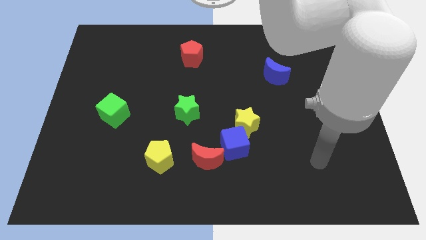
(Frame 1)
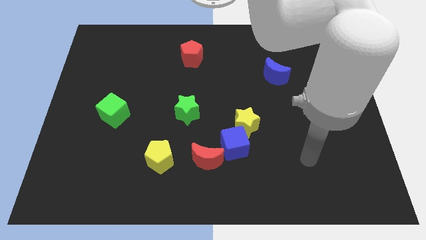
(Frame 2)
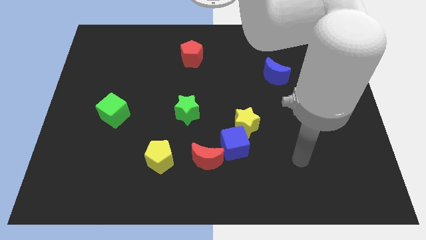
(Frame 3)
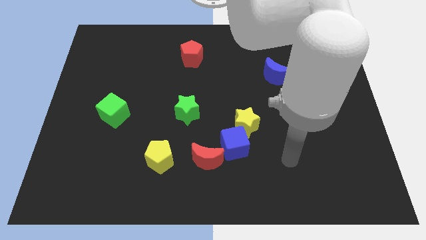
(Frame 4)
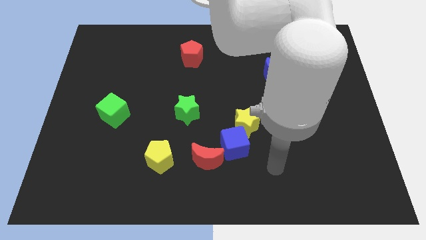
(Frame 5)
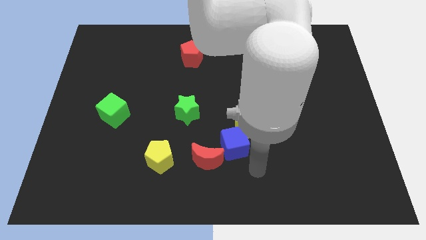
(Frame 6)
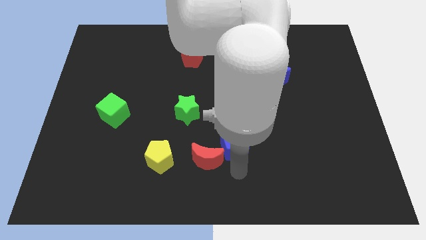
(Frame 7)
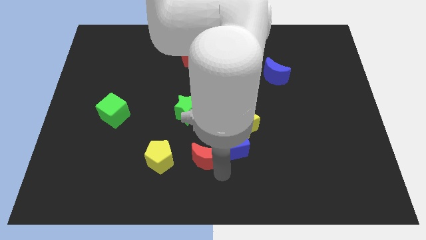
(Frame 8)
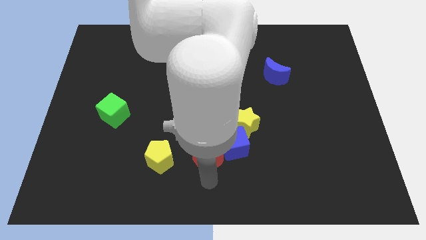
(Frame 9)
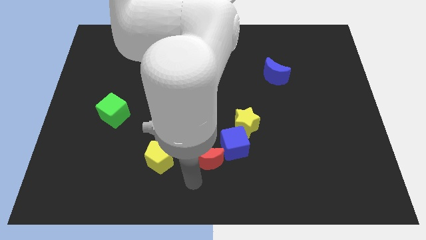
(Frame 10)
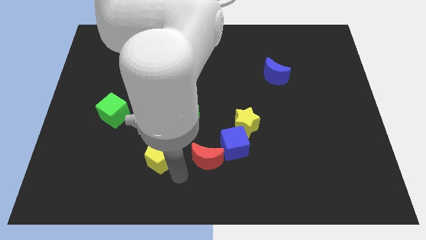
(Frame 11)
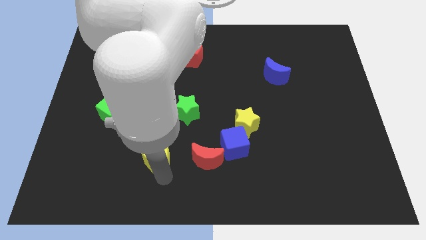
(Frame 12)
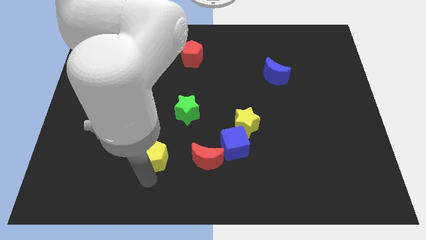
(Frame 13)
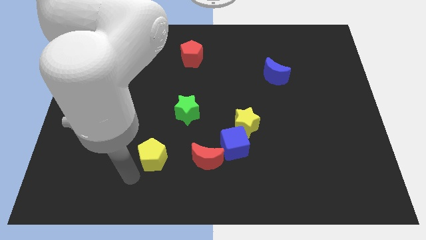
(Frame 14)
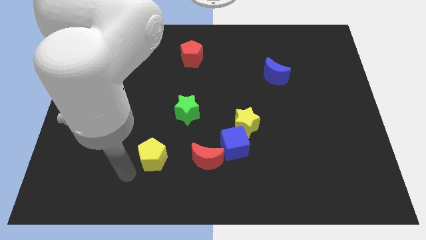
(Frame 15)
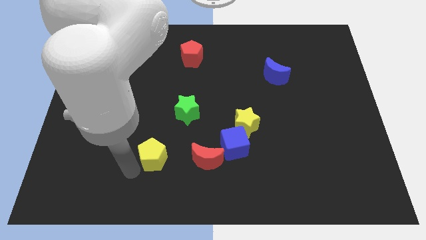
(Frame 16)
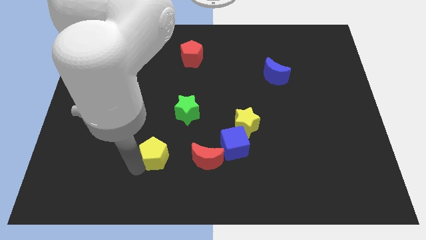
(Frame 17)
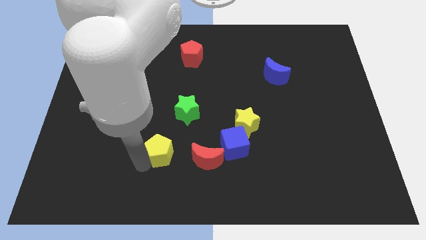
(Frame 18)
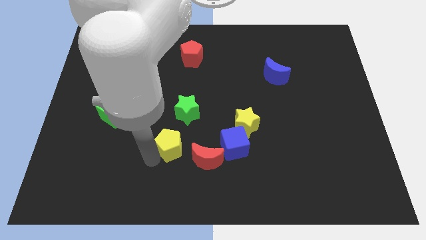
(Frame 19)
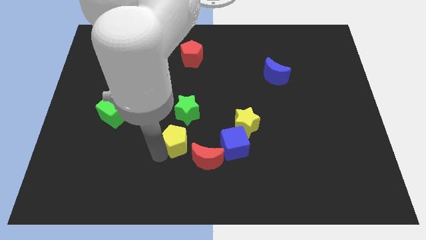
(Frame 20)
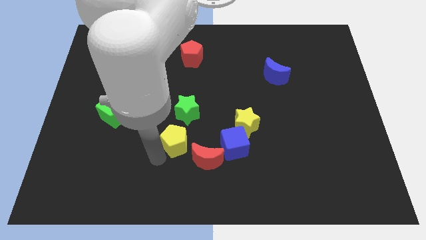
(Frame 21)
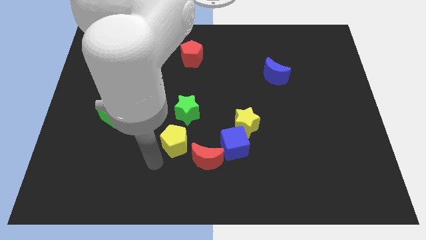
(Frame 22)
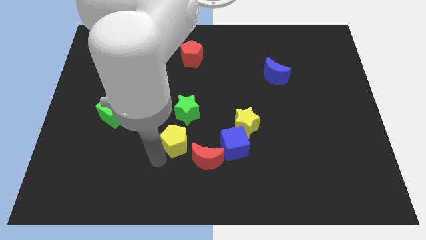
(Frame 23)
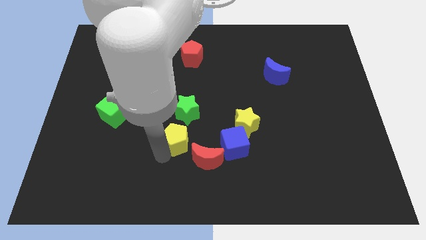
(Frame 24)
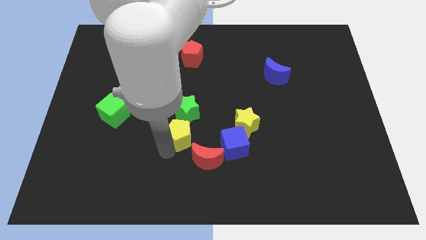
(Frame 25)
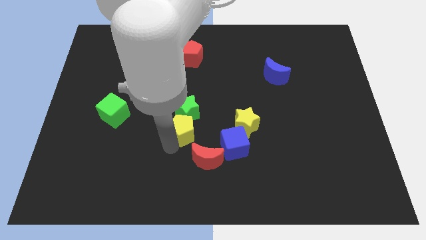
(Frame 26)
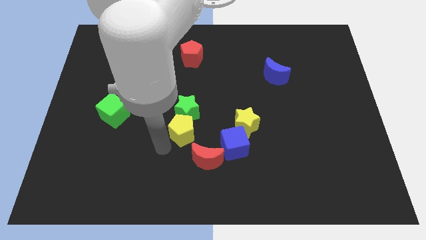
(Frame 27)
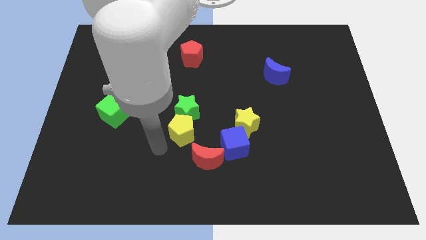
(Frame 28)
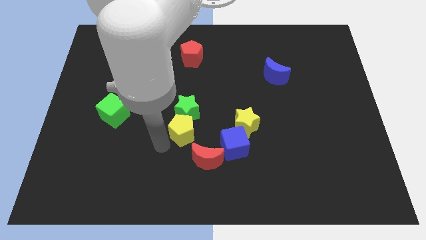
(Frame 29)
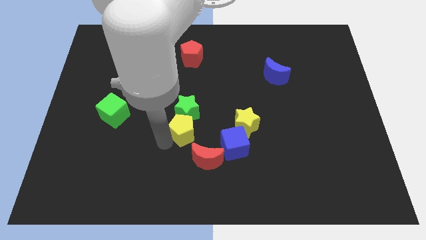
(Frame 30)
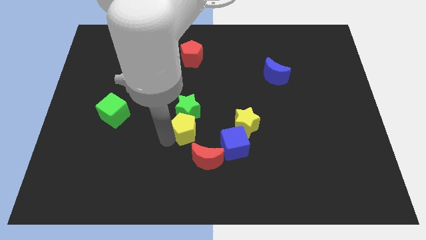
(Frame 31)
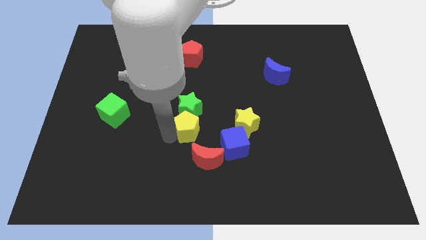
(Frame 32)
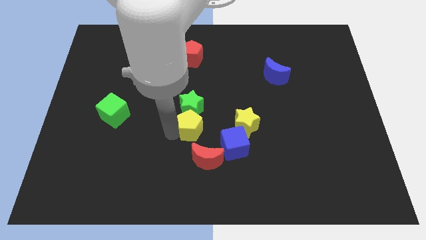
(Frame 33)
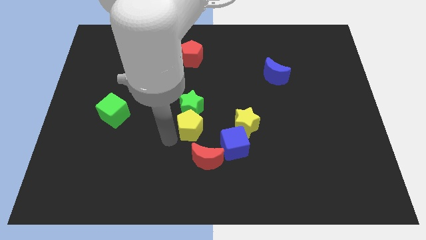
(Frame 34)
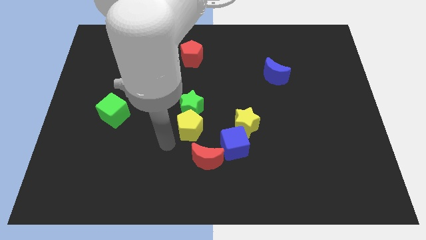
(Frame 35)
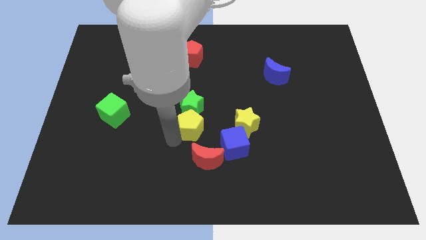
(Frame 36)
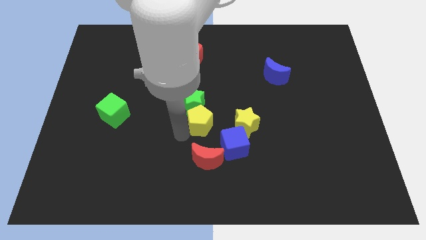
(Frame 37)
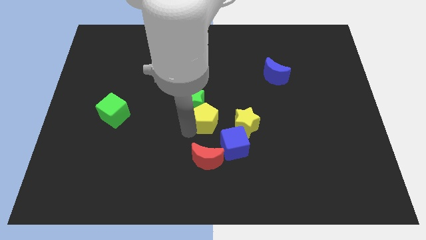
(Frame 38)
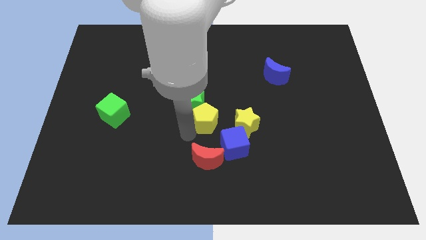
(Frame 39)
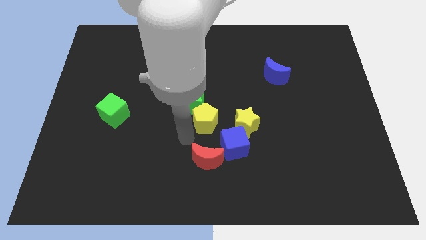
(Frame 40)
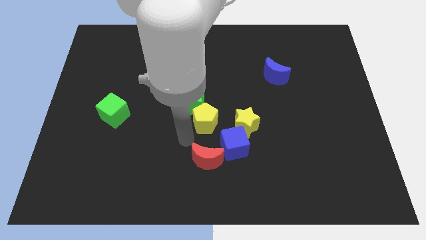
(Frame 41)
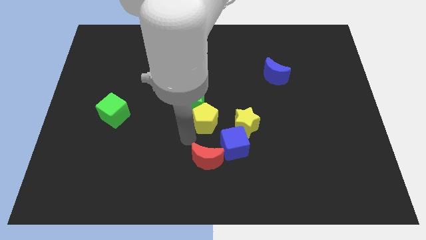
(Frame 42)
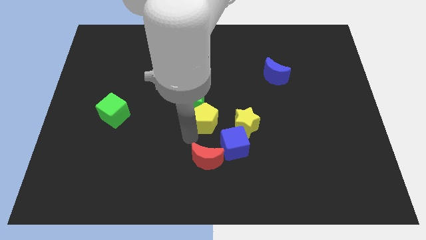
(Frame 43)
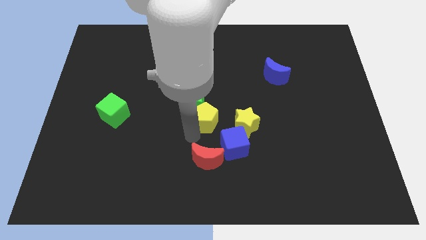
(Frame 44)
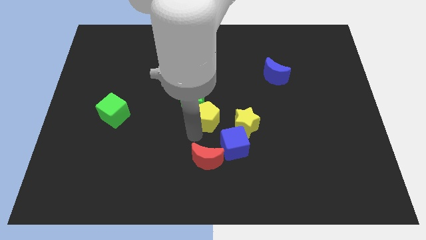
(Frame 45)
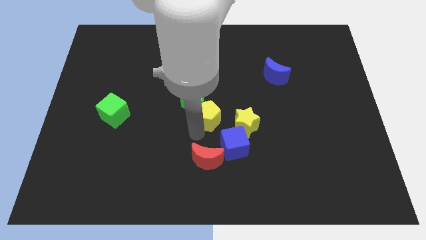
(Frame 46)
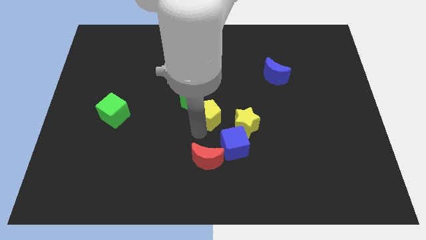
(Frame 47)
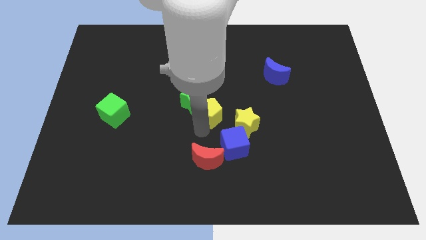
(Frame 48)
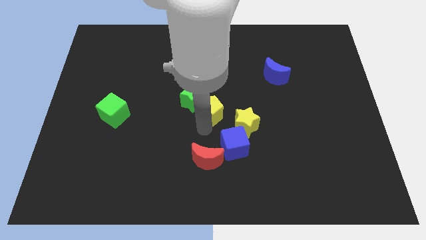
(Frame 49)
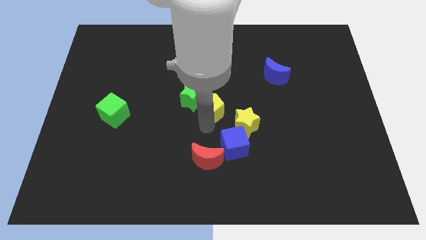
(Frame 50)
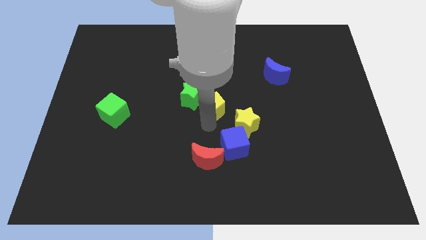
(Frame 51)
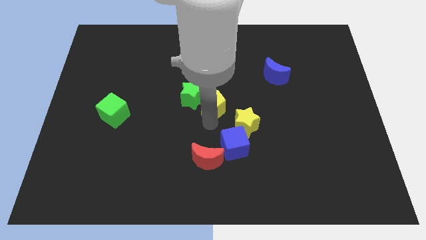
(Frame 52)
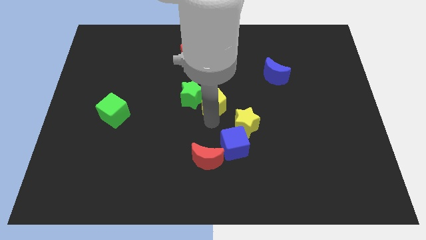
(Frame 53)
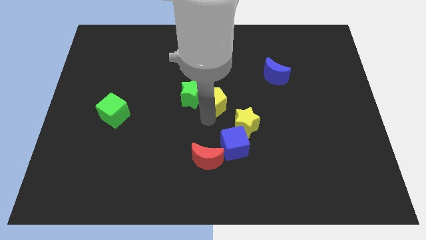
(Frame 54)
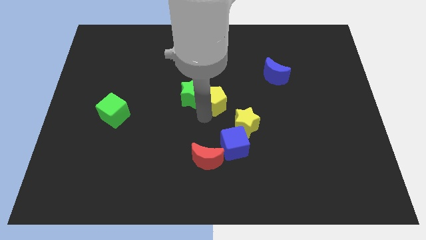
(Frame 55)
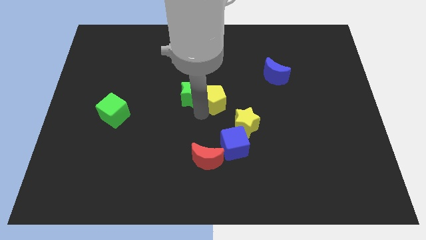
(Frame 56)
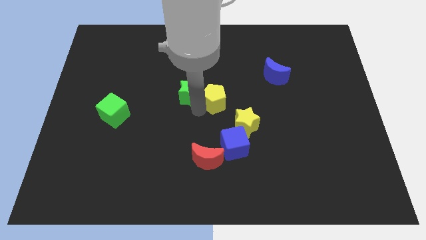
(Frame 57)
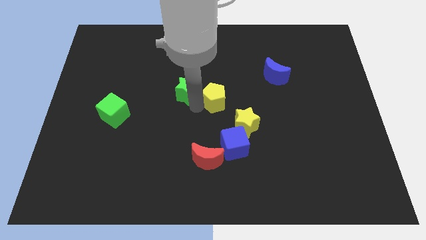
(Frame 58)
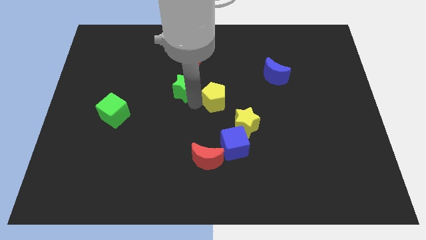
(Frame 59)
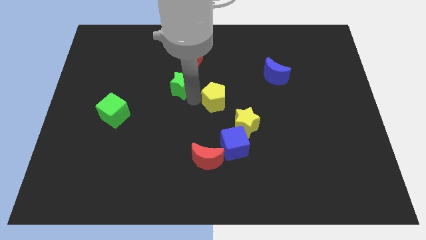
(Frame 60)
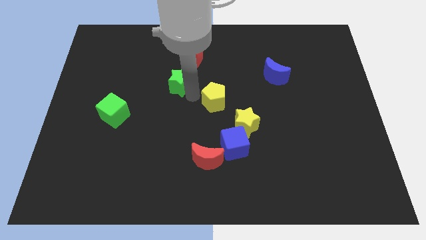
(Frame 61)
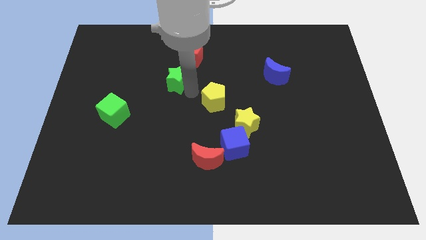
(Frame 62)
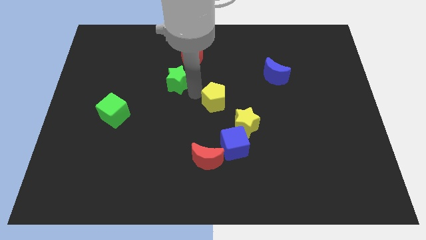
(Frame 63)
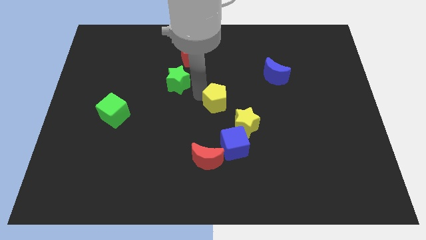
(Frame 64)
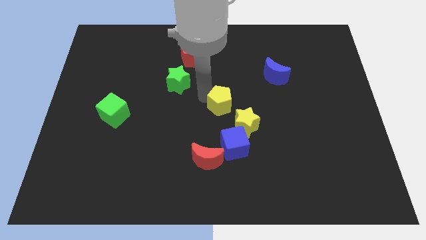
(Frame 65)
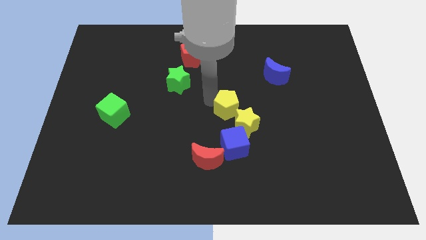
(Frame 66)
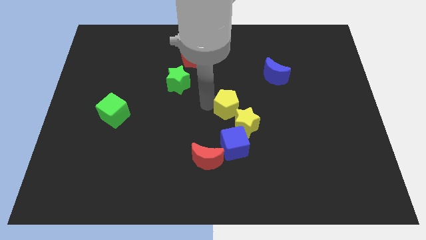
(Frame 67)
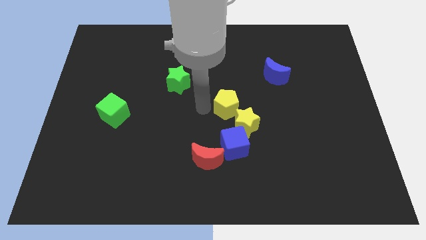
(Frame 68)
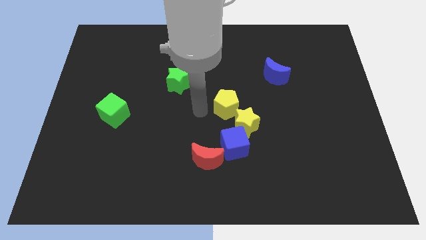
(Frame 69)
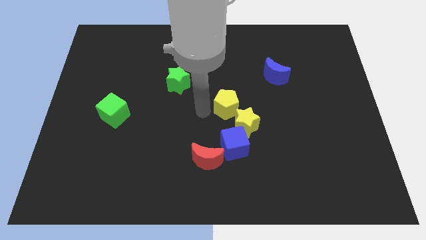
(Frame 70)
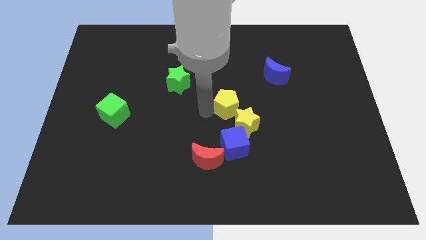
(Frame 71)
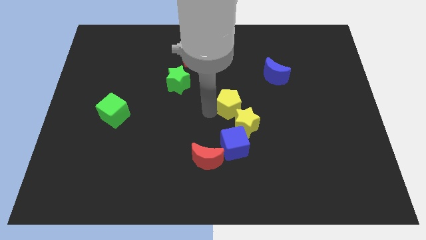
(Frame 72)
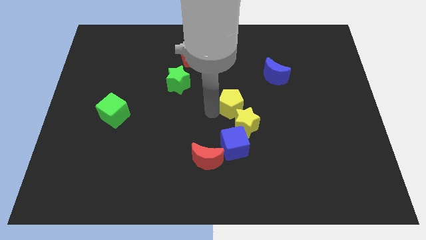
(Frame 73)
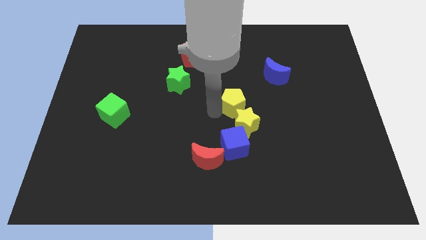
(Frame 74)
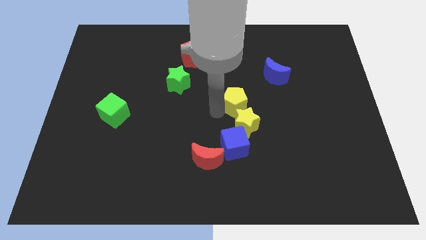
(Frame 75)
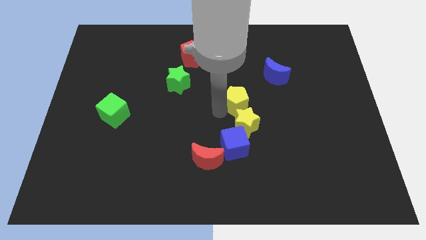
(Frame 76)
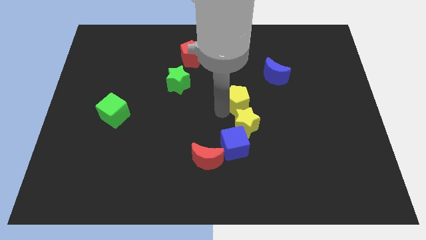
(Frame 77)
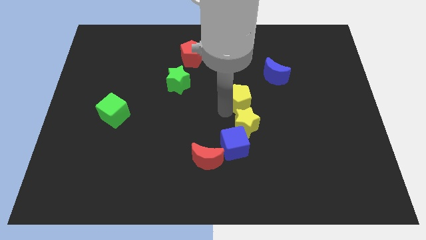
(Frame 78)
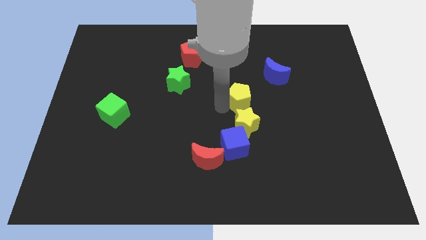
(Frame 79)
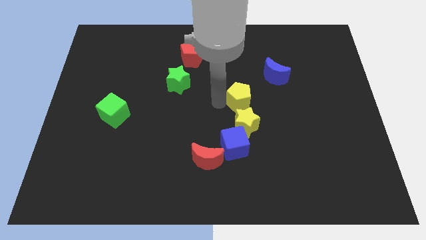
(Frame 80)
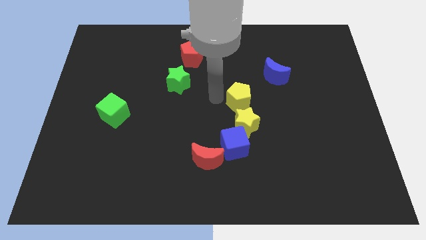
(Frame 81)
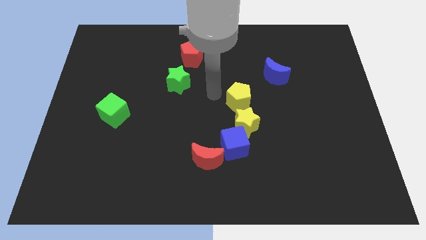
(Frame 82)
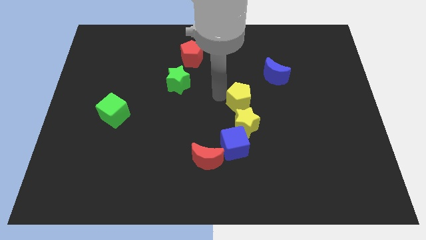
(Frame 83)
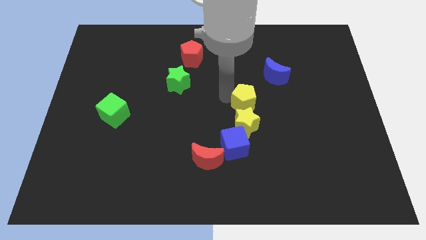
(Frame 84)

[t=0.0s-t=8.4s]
move the yellow pentagon to the top right side of the yellow star
